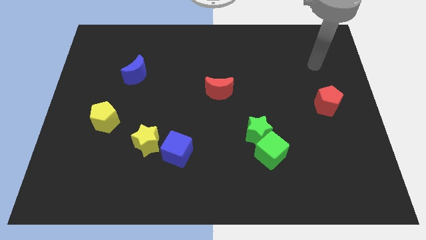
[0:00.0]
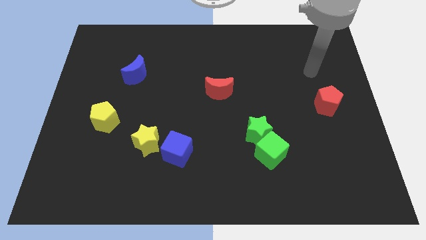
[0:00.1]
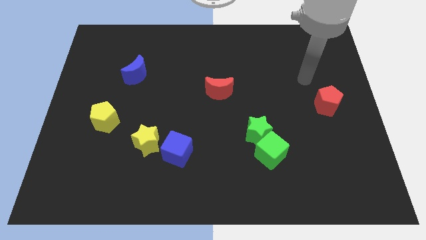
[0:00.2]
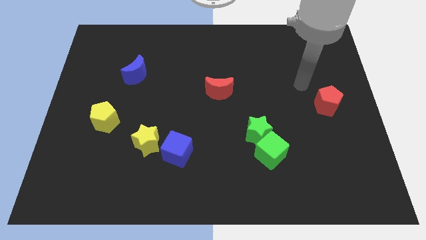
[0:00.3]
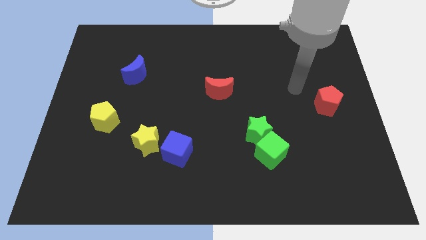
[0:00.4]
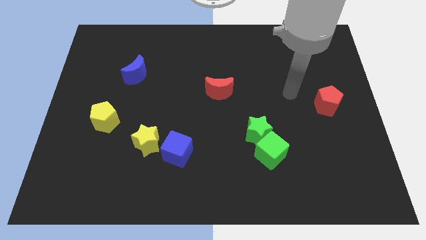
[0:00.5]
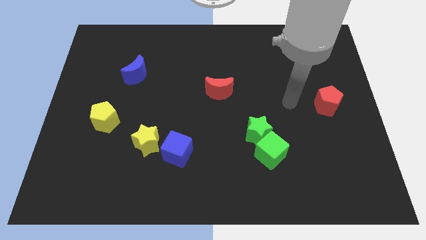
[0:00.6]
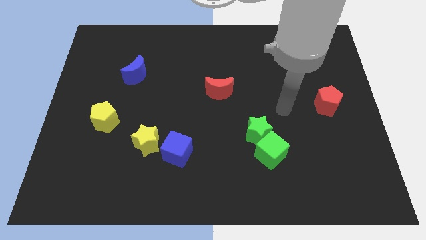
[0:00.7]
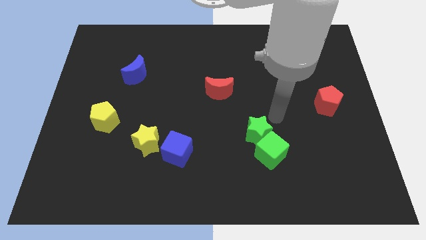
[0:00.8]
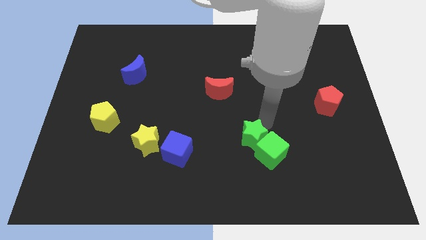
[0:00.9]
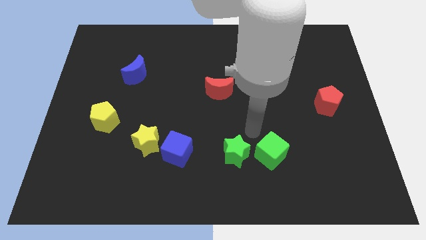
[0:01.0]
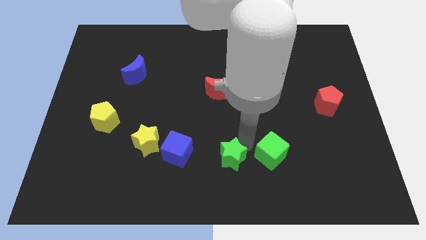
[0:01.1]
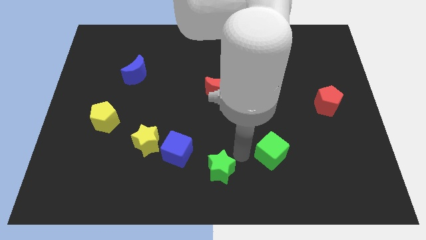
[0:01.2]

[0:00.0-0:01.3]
move the green cube away from the green star

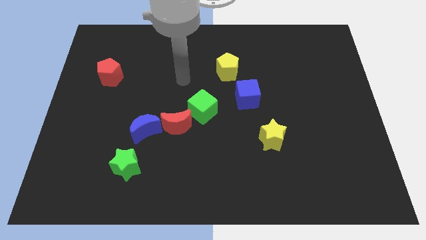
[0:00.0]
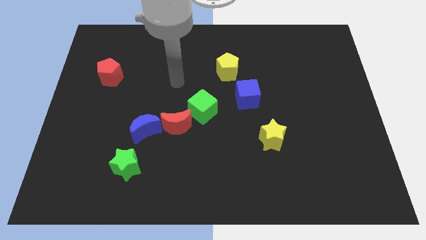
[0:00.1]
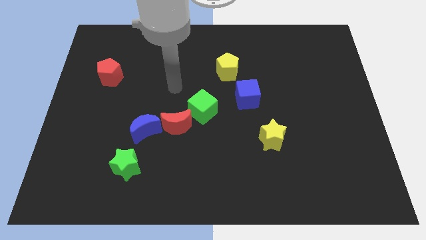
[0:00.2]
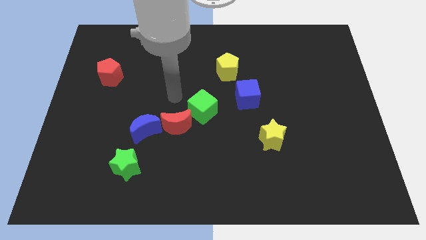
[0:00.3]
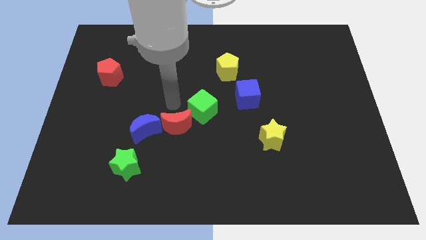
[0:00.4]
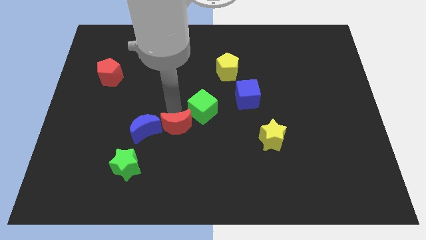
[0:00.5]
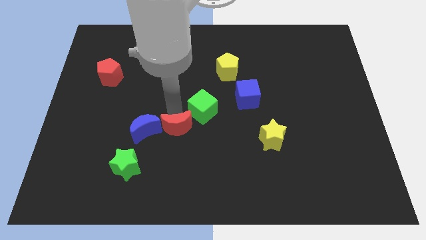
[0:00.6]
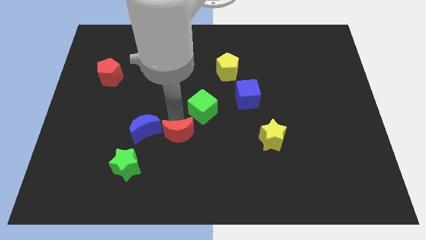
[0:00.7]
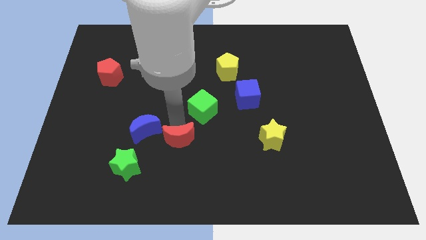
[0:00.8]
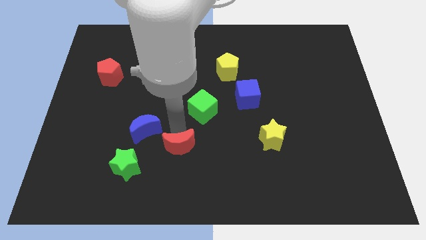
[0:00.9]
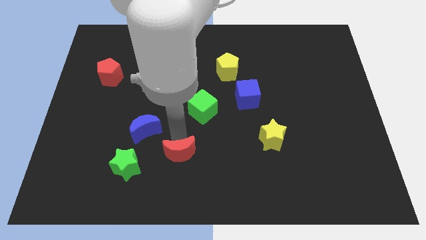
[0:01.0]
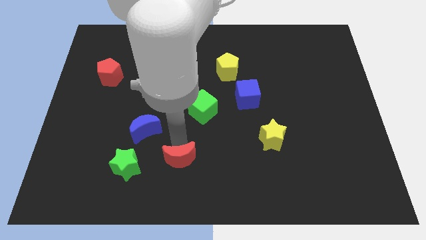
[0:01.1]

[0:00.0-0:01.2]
separate the red moon from the blue moon and green cube

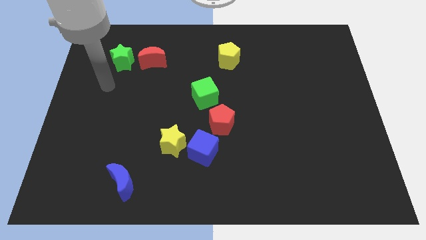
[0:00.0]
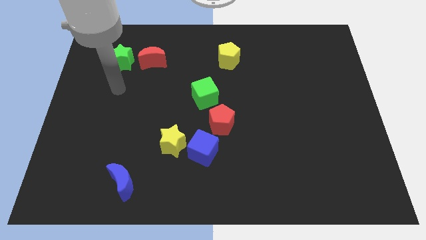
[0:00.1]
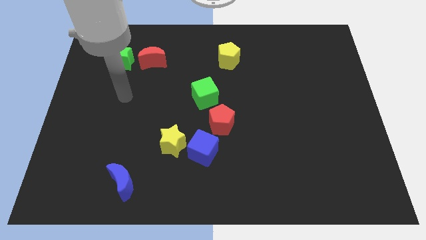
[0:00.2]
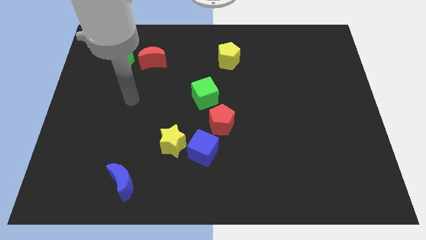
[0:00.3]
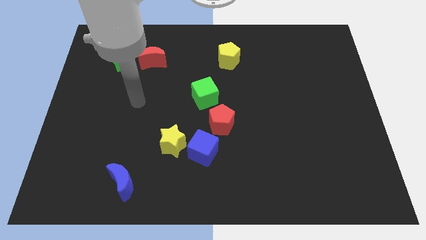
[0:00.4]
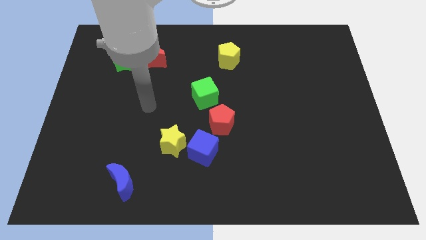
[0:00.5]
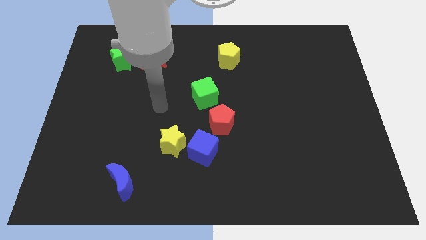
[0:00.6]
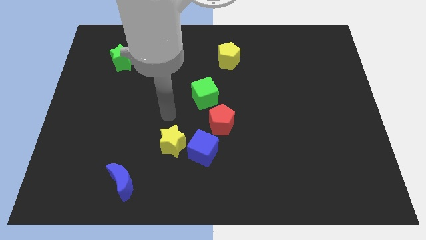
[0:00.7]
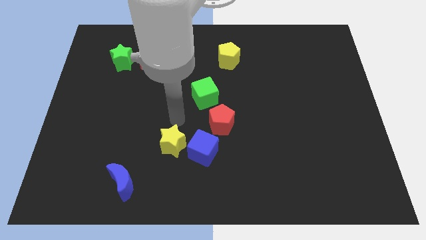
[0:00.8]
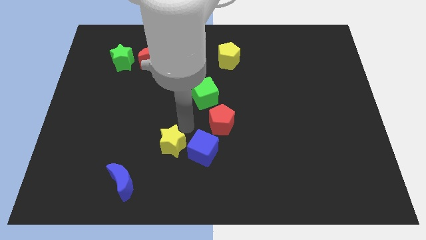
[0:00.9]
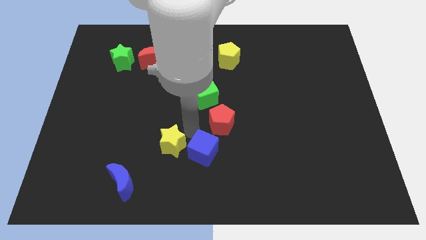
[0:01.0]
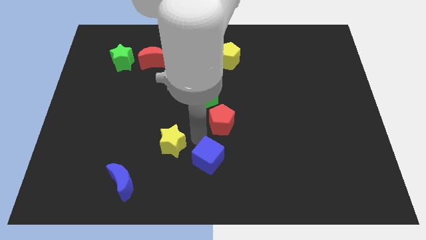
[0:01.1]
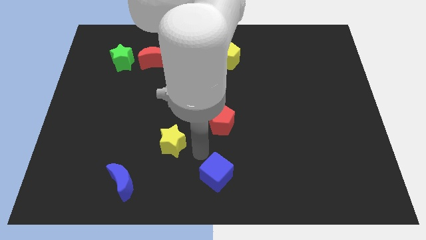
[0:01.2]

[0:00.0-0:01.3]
separate the yellow star from the blue cube

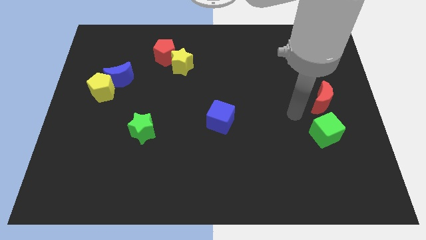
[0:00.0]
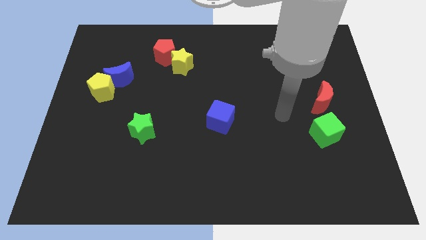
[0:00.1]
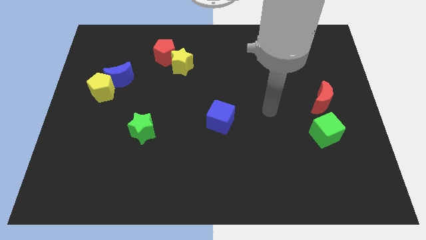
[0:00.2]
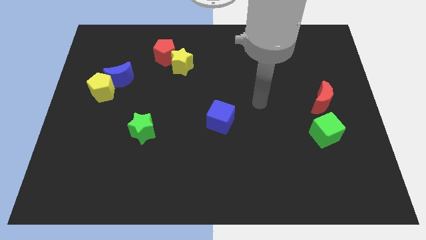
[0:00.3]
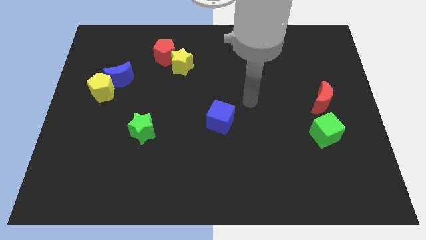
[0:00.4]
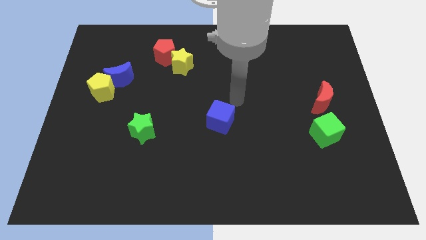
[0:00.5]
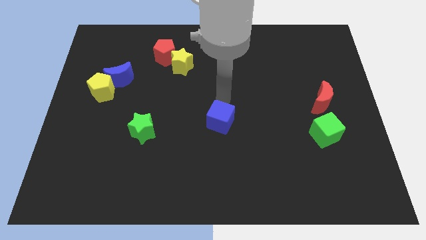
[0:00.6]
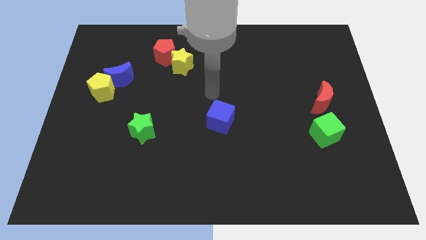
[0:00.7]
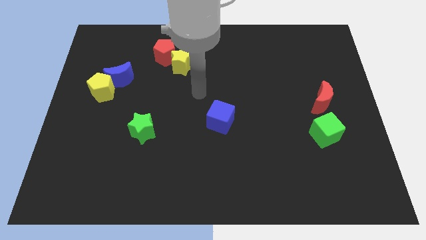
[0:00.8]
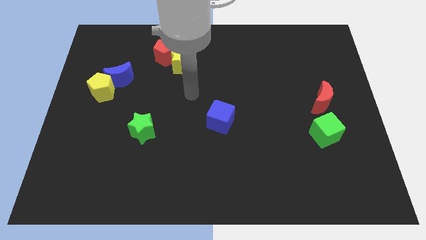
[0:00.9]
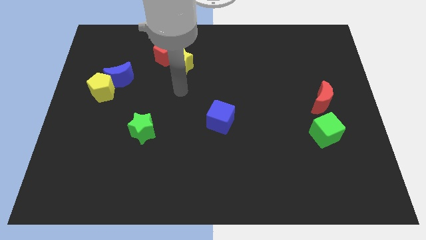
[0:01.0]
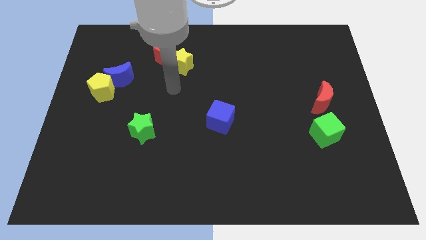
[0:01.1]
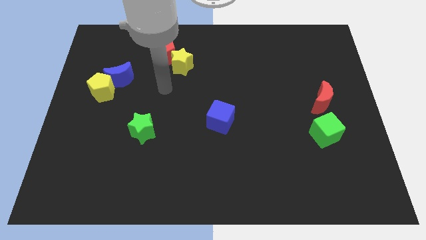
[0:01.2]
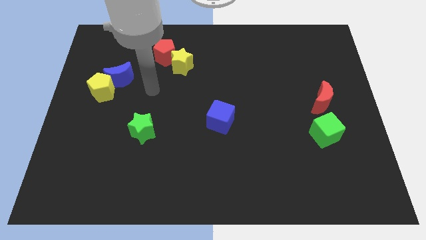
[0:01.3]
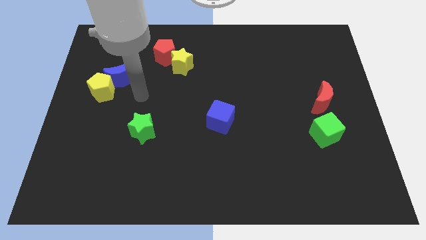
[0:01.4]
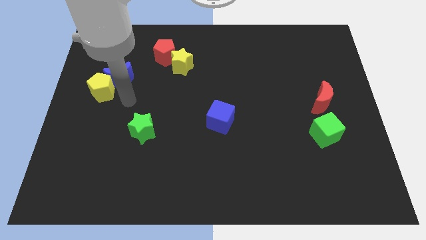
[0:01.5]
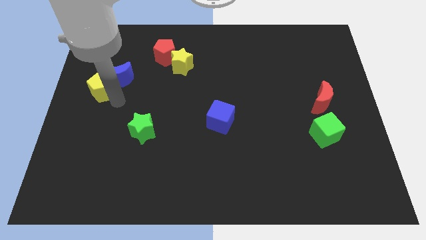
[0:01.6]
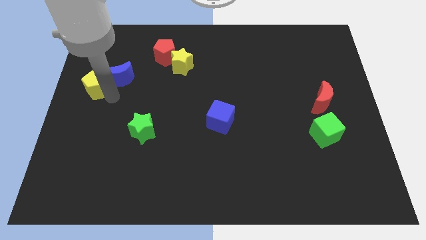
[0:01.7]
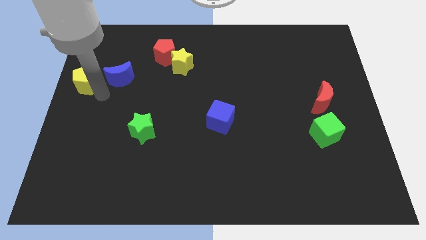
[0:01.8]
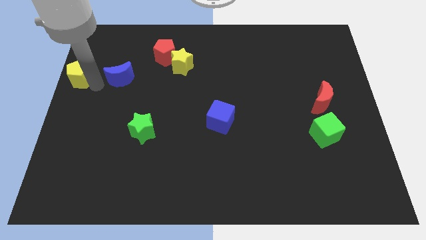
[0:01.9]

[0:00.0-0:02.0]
move the blue moon away from the yellow pentagon

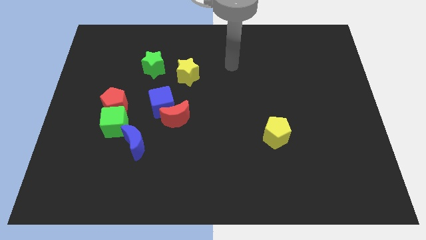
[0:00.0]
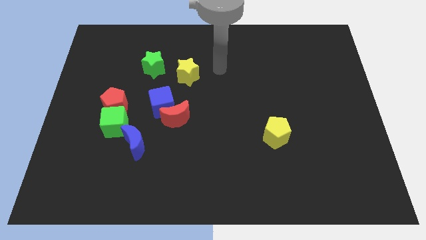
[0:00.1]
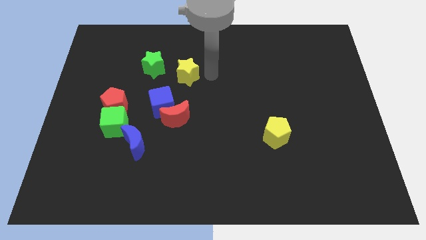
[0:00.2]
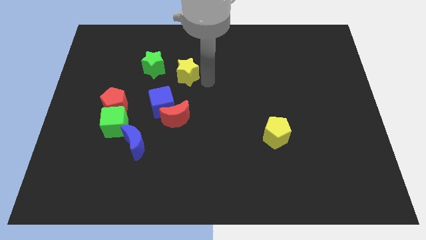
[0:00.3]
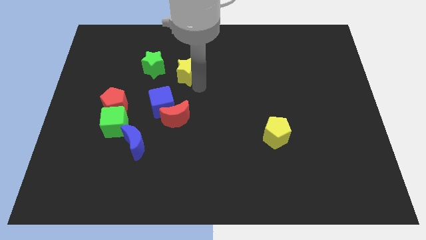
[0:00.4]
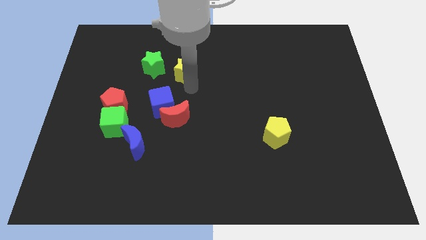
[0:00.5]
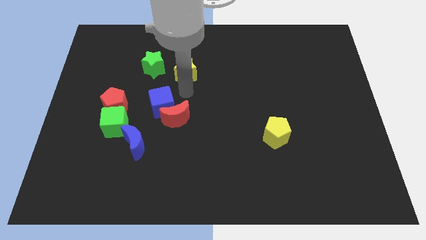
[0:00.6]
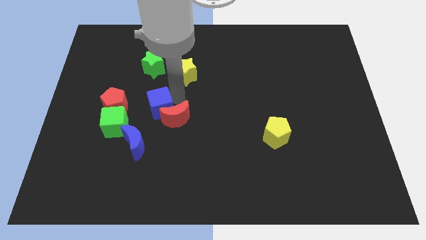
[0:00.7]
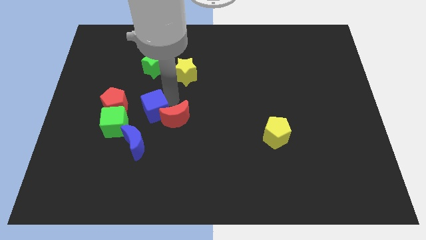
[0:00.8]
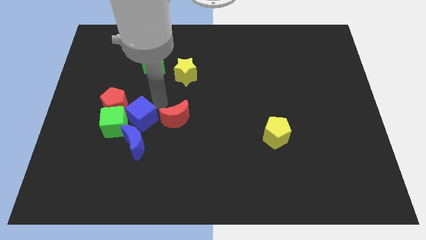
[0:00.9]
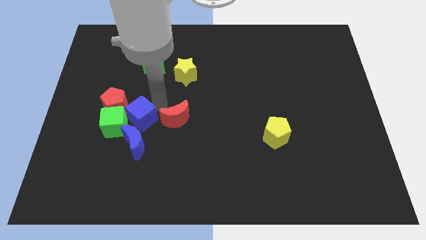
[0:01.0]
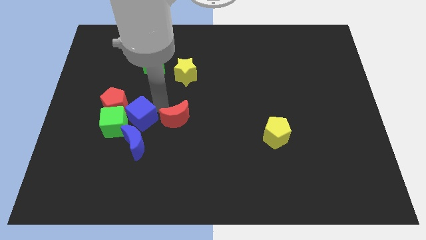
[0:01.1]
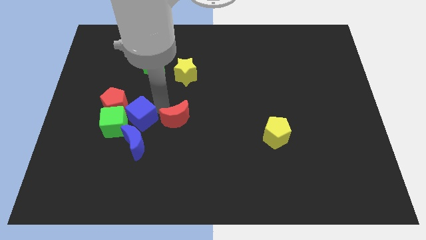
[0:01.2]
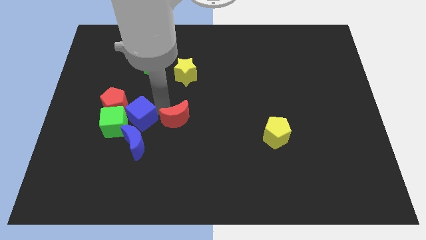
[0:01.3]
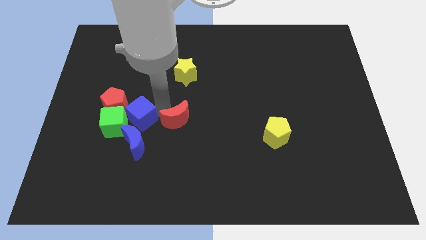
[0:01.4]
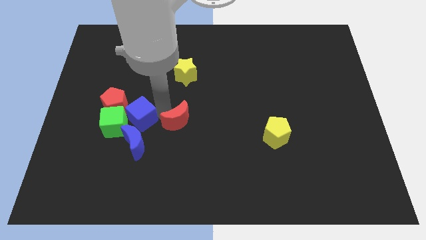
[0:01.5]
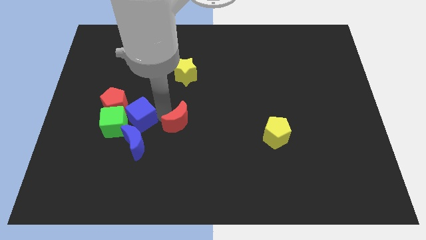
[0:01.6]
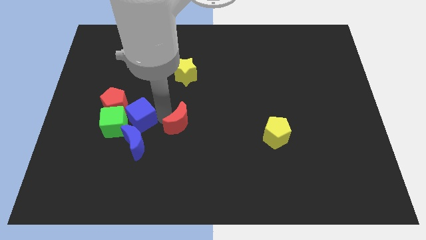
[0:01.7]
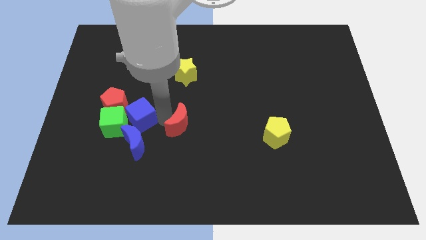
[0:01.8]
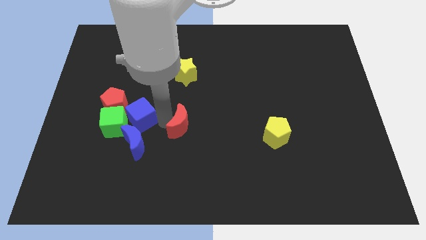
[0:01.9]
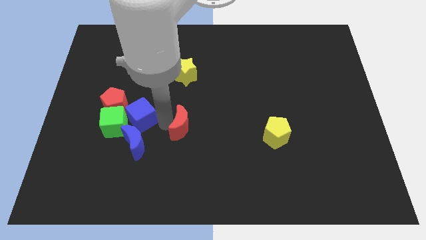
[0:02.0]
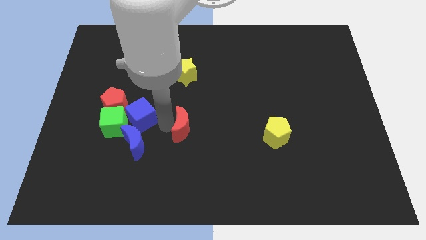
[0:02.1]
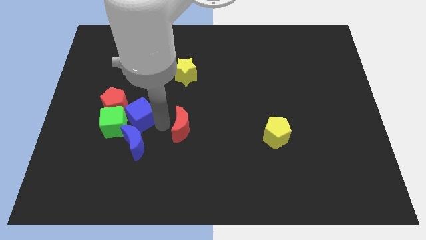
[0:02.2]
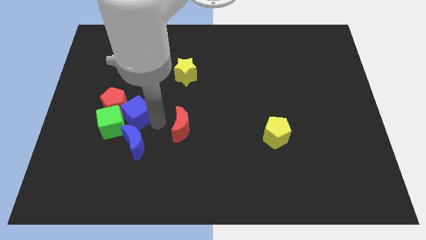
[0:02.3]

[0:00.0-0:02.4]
pull the red moon apart from the blue cube

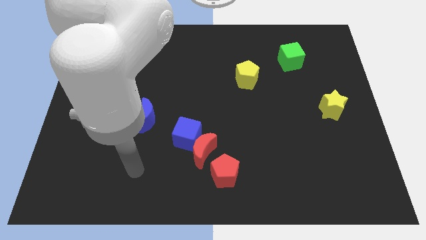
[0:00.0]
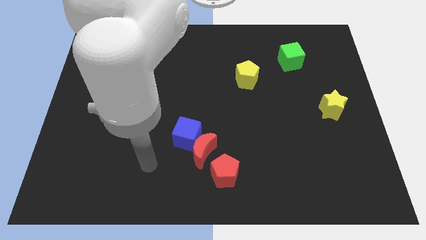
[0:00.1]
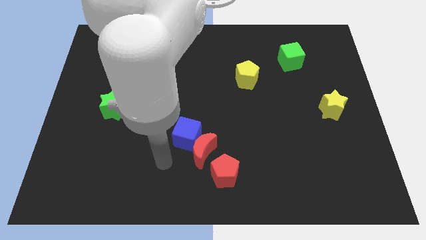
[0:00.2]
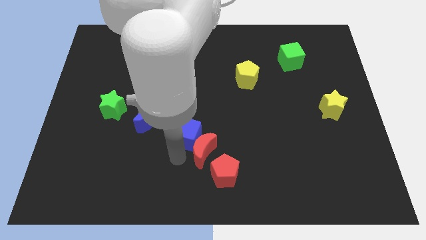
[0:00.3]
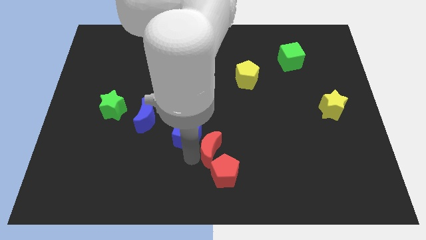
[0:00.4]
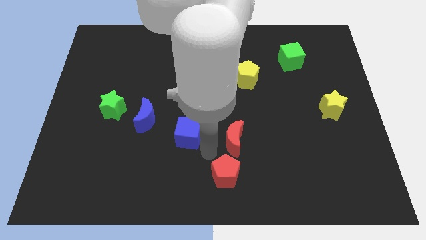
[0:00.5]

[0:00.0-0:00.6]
move the blue cube away from the red moon

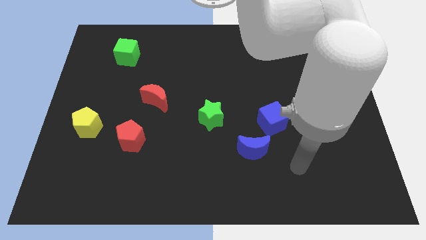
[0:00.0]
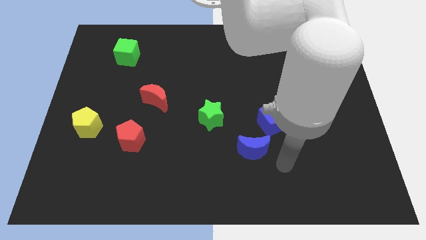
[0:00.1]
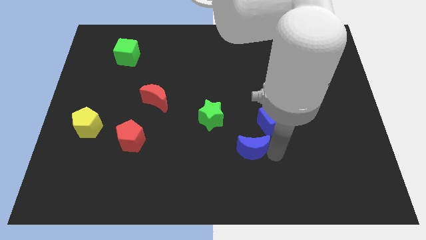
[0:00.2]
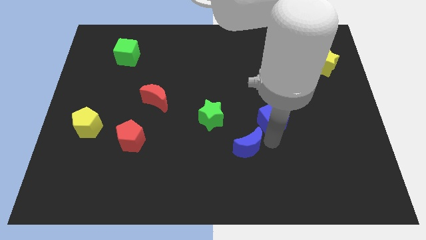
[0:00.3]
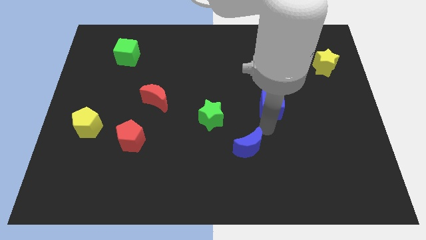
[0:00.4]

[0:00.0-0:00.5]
pull the blue moon apart from the blue cube
